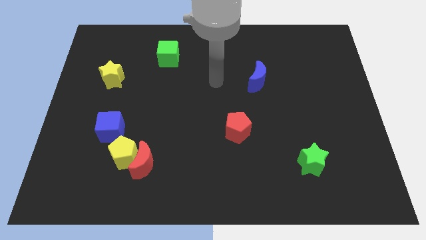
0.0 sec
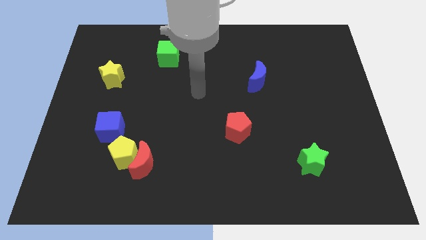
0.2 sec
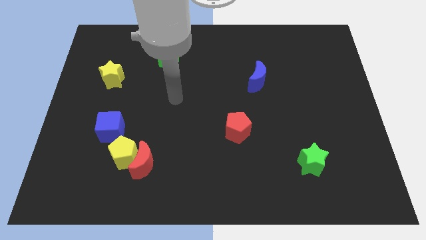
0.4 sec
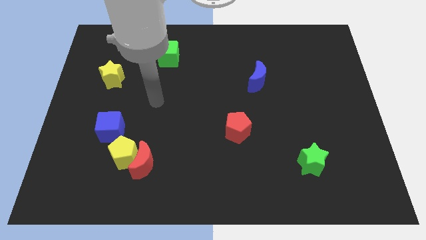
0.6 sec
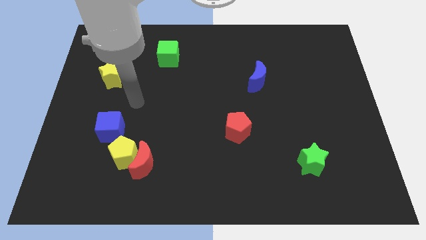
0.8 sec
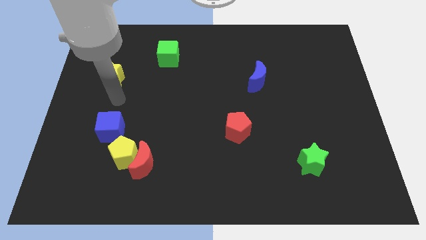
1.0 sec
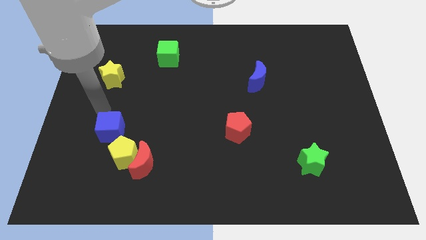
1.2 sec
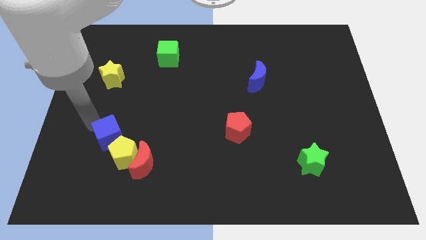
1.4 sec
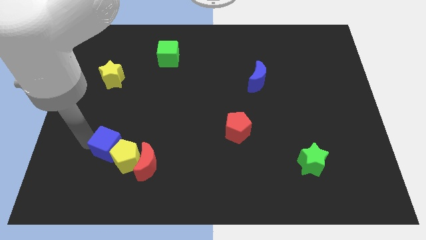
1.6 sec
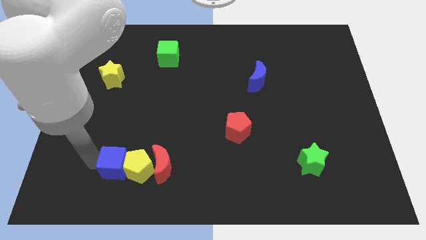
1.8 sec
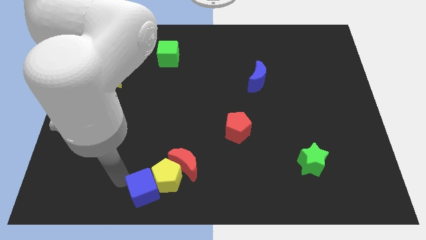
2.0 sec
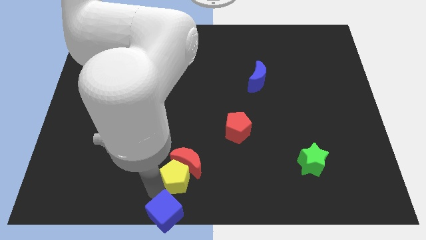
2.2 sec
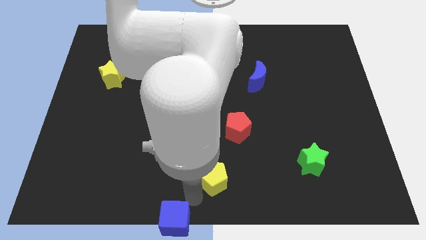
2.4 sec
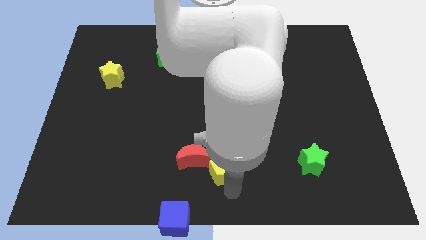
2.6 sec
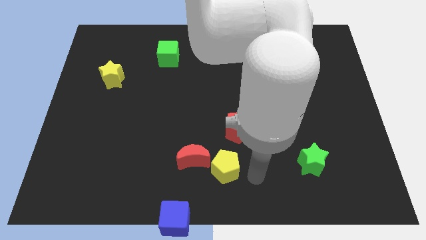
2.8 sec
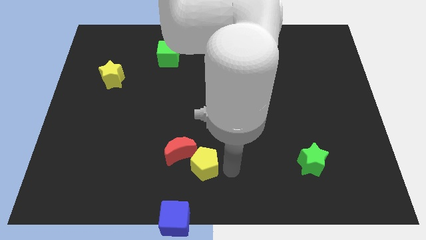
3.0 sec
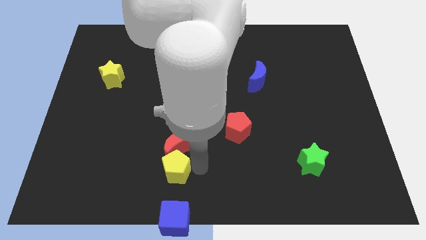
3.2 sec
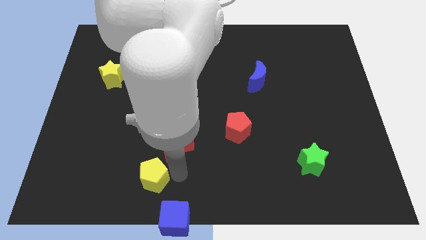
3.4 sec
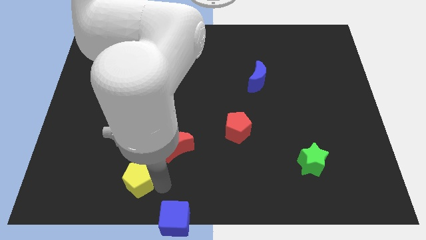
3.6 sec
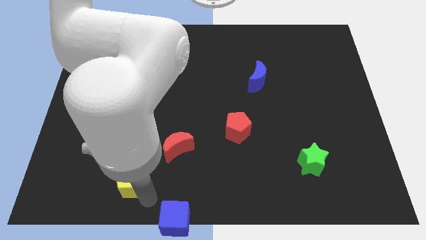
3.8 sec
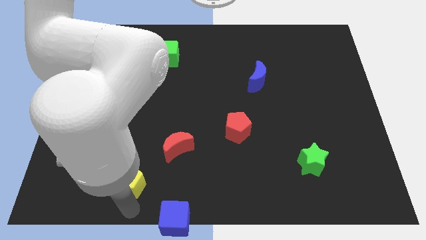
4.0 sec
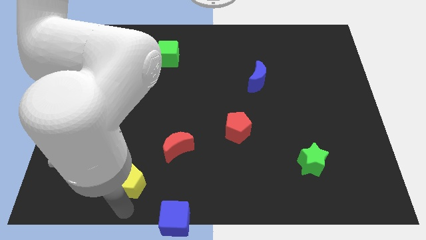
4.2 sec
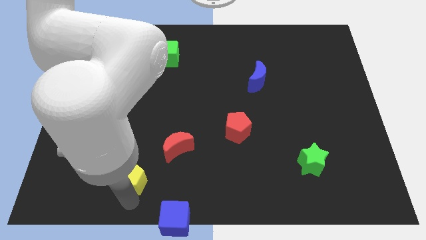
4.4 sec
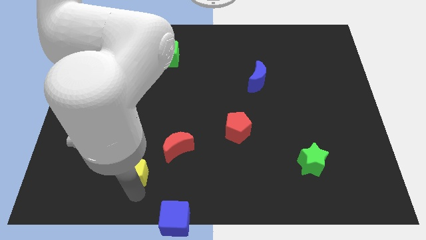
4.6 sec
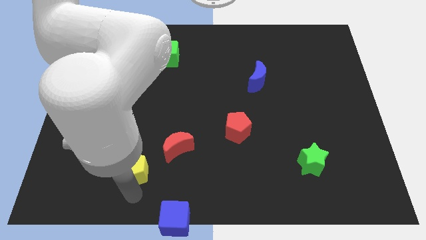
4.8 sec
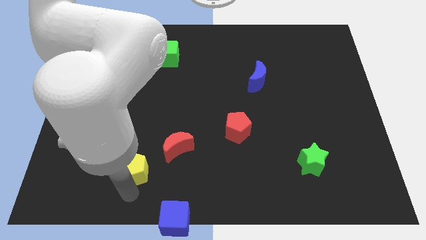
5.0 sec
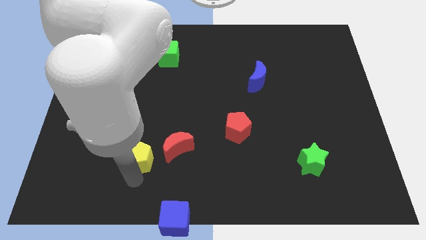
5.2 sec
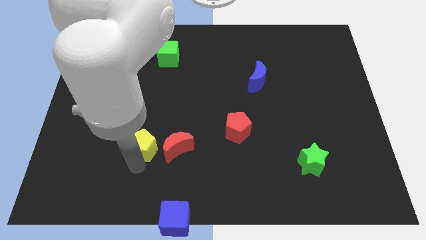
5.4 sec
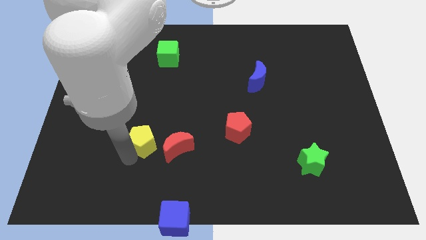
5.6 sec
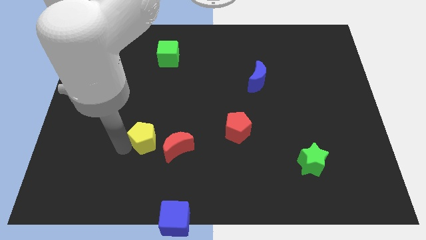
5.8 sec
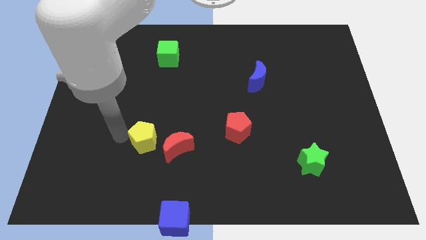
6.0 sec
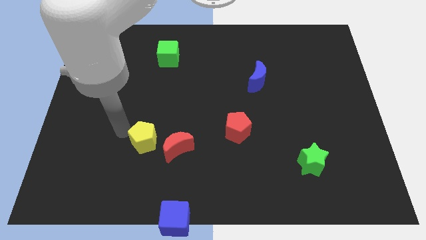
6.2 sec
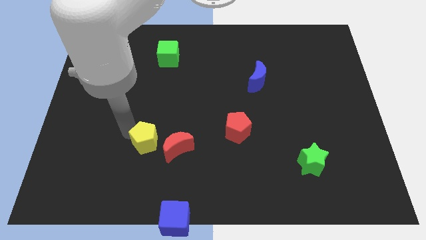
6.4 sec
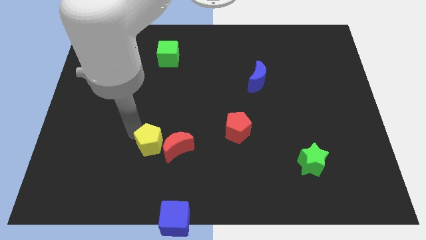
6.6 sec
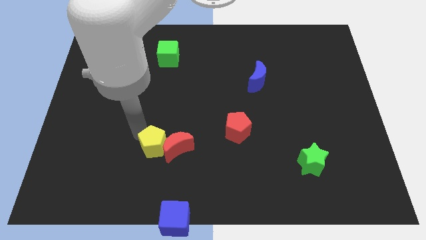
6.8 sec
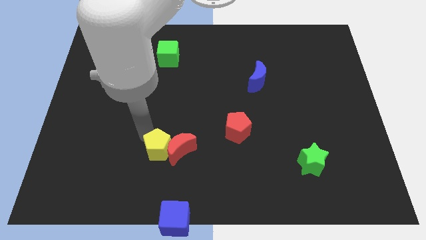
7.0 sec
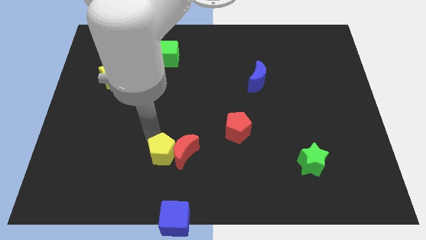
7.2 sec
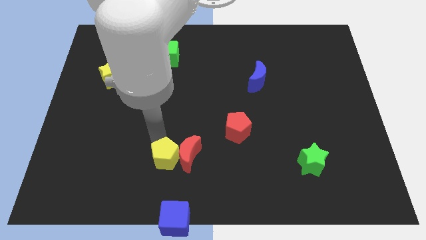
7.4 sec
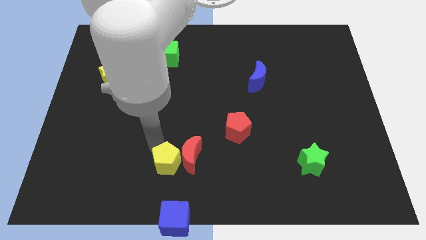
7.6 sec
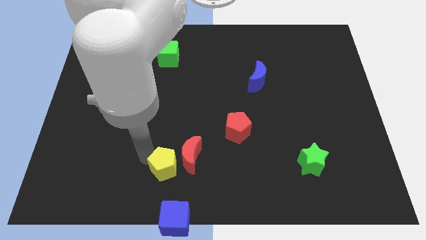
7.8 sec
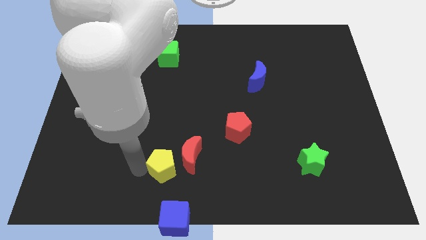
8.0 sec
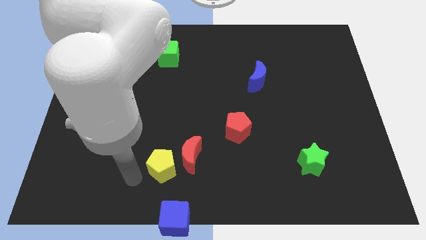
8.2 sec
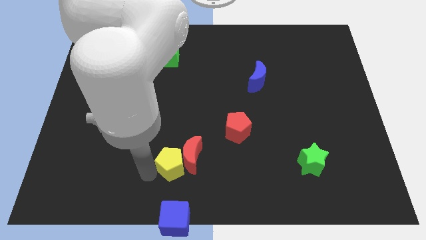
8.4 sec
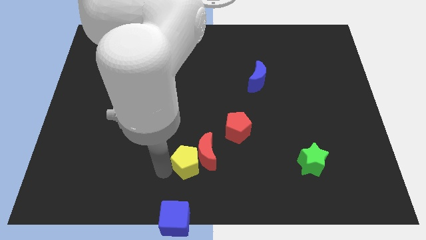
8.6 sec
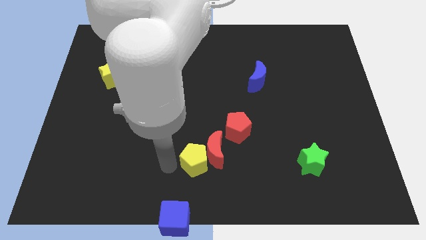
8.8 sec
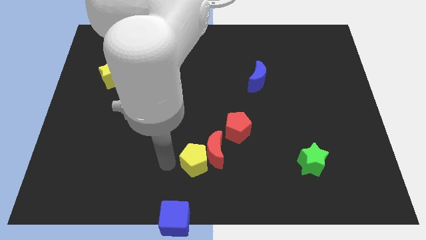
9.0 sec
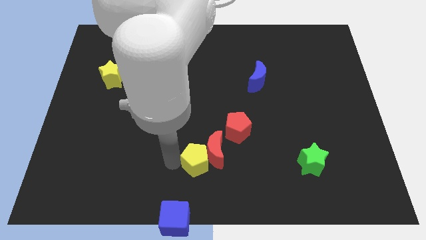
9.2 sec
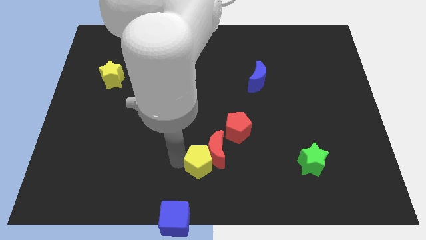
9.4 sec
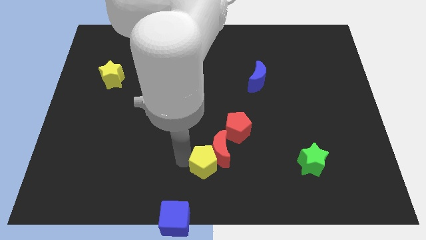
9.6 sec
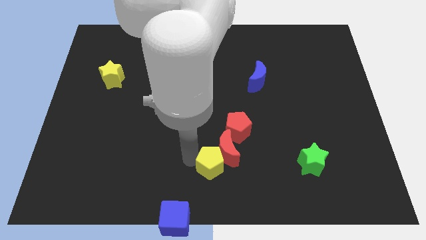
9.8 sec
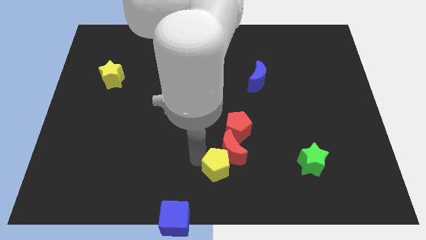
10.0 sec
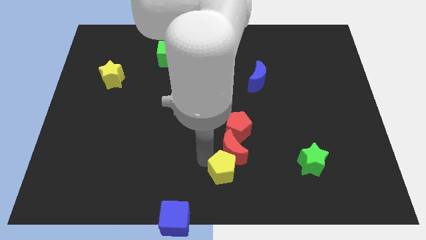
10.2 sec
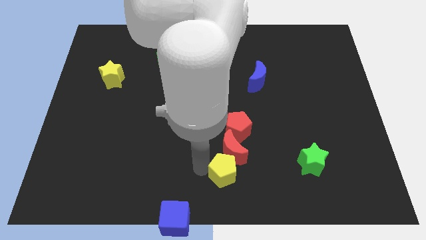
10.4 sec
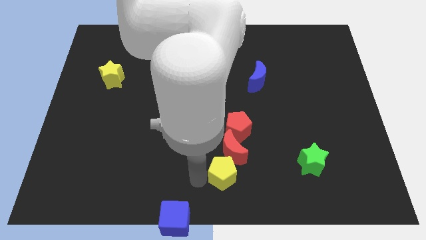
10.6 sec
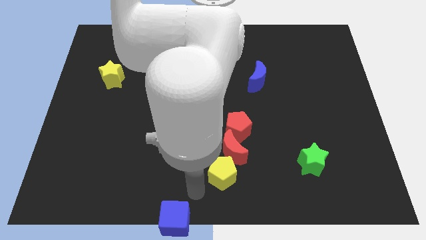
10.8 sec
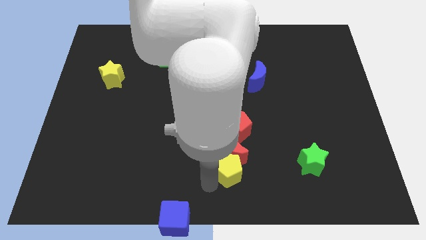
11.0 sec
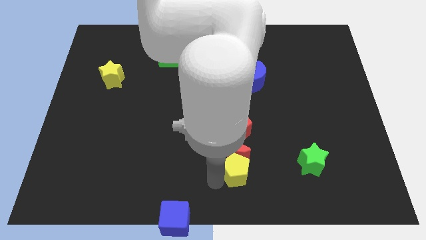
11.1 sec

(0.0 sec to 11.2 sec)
move the yellow pentagon to the left of the green star

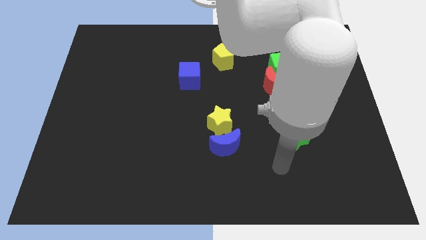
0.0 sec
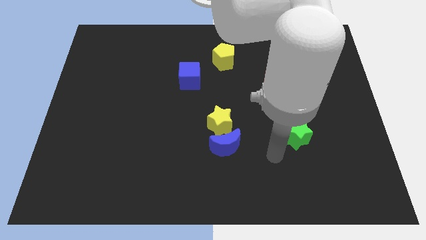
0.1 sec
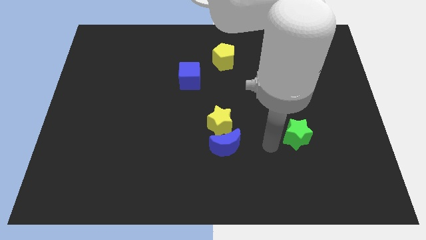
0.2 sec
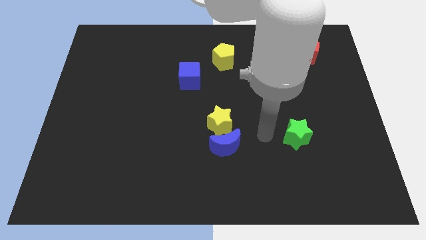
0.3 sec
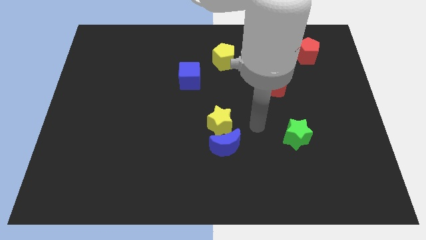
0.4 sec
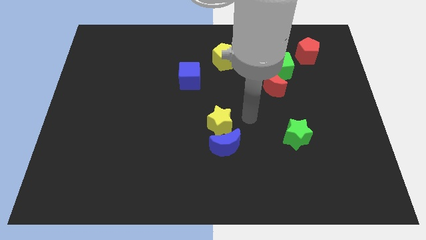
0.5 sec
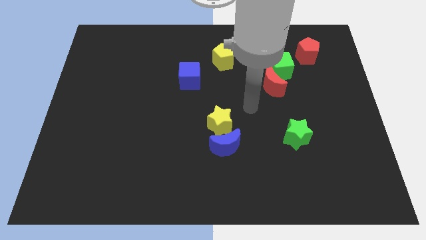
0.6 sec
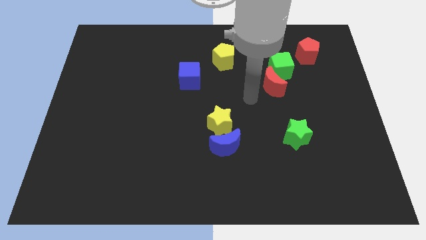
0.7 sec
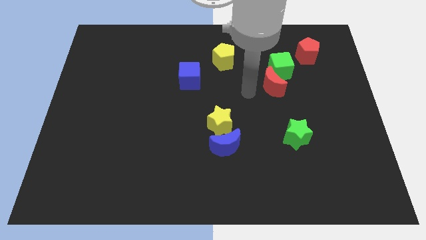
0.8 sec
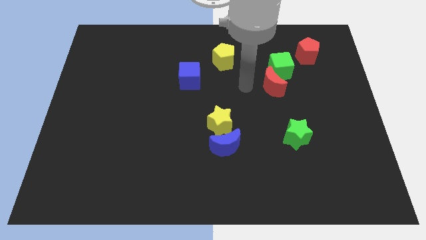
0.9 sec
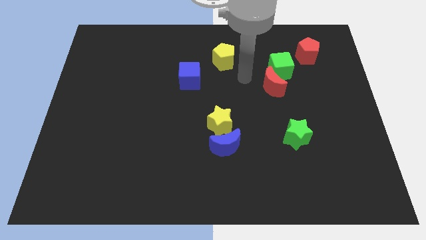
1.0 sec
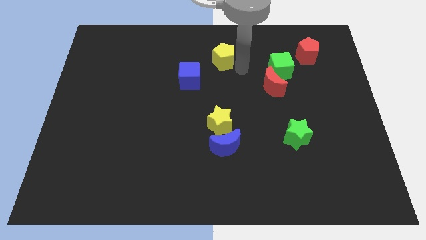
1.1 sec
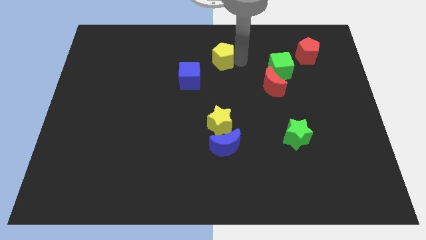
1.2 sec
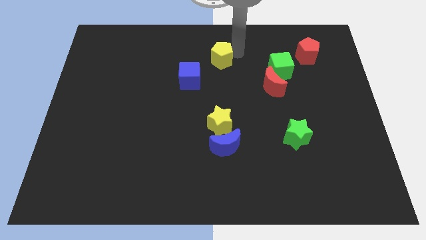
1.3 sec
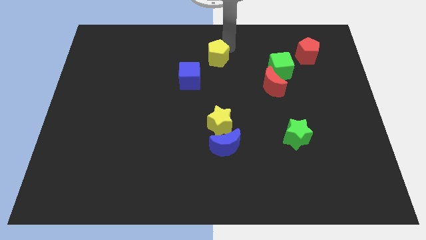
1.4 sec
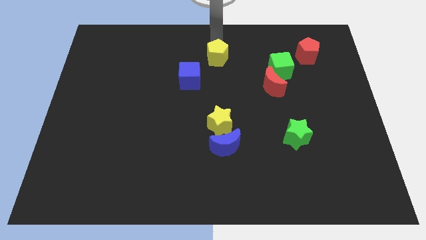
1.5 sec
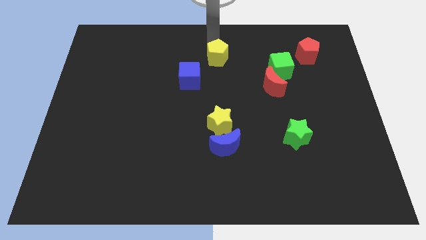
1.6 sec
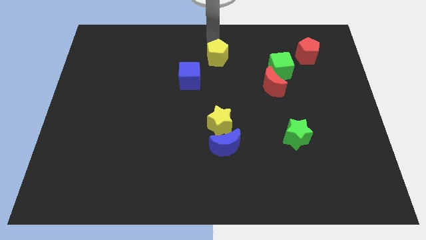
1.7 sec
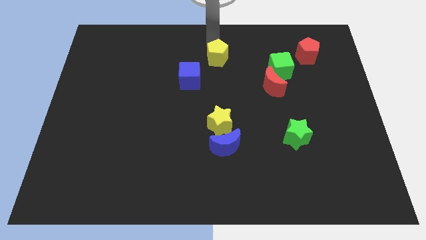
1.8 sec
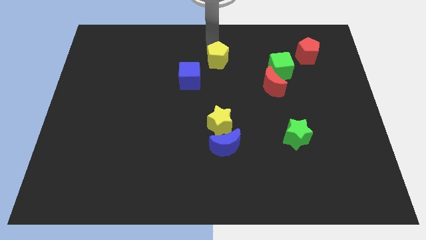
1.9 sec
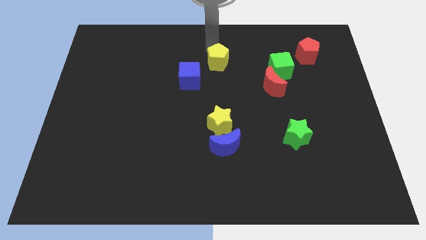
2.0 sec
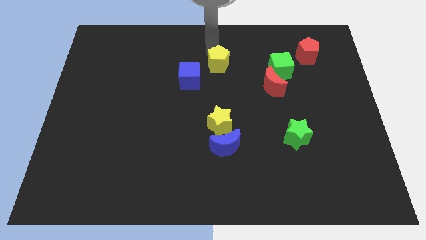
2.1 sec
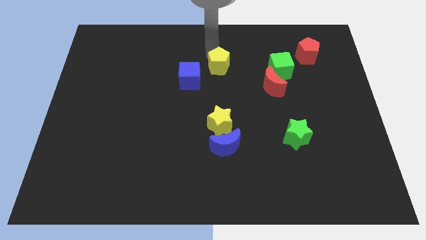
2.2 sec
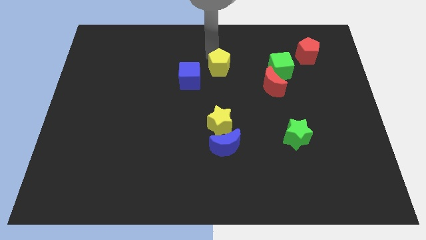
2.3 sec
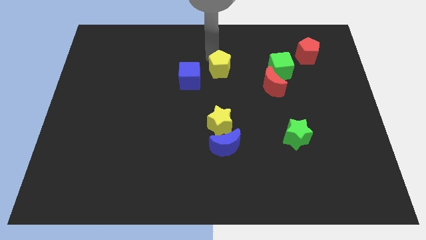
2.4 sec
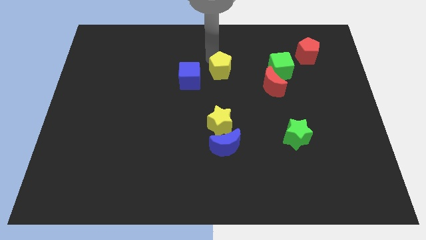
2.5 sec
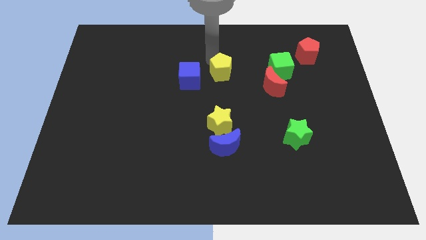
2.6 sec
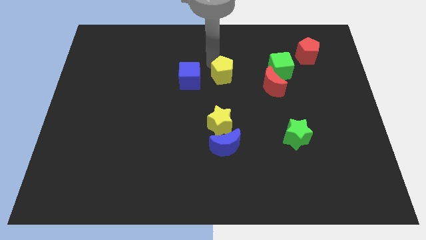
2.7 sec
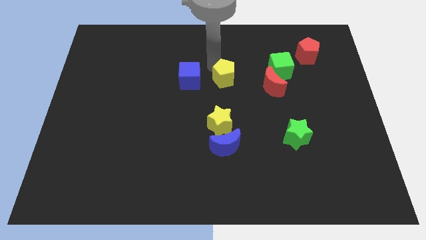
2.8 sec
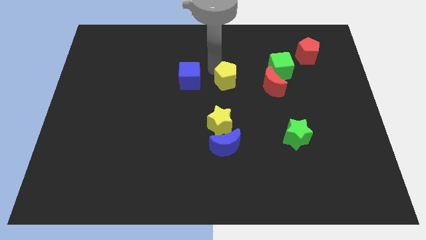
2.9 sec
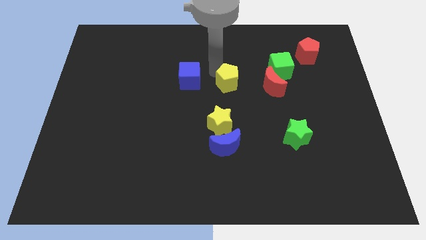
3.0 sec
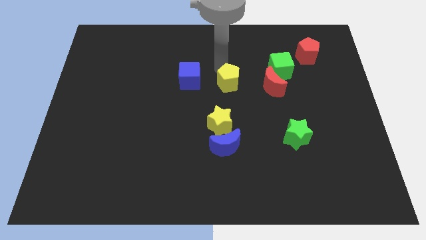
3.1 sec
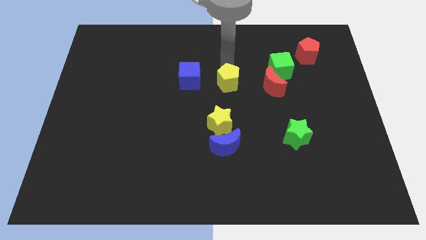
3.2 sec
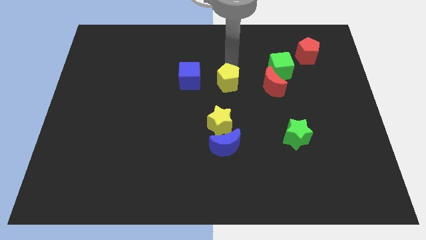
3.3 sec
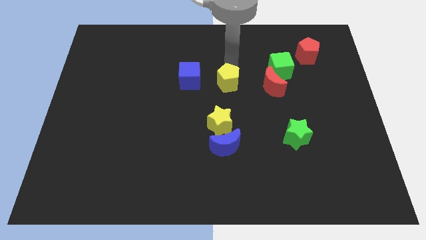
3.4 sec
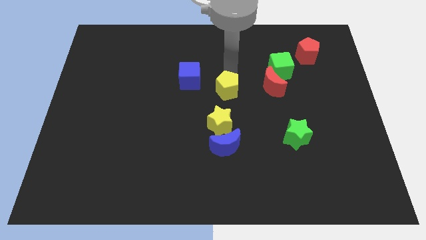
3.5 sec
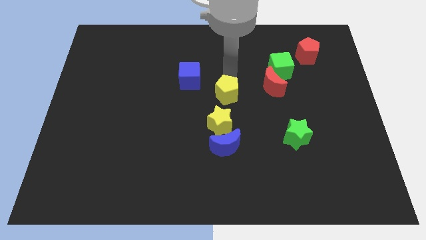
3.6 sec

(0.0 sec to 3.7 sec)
push the yellow pentagon above the blue moon
